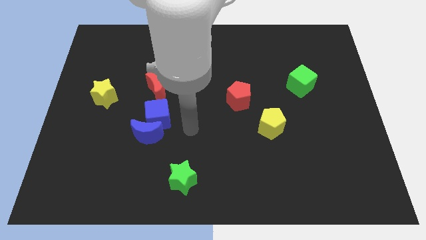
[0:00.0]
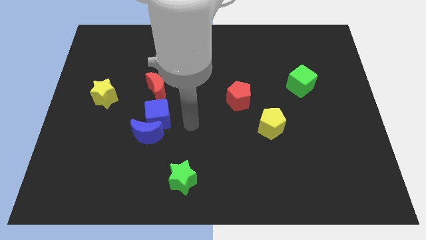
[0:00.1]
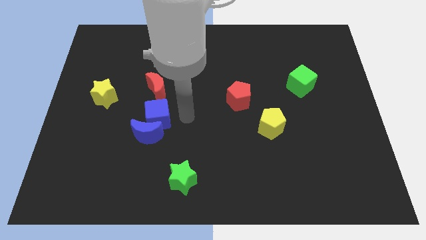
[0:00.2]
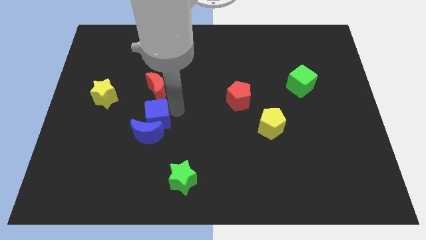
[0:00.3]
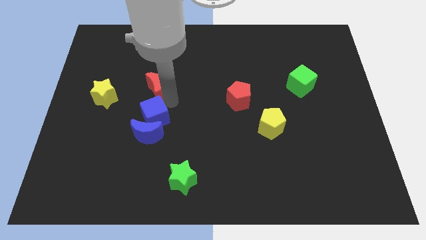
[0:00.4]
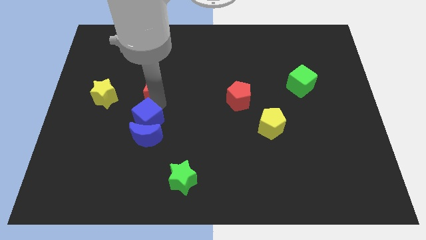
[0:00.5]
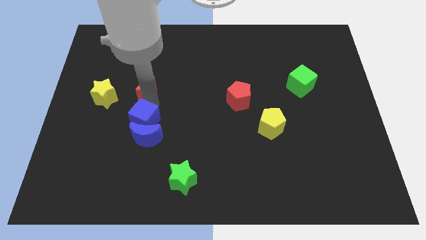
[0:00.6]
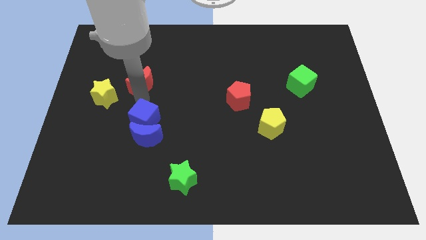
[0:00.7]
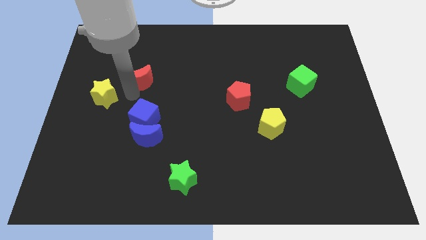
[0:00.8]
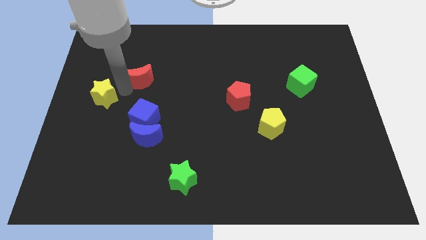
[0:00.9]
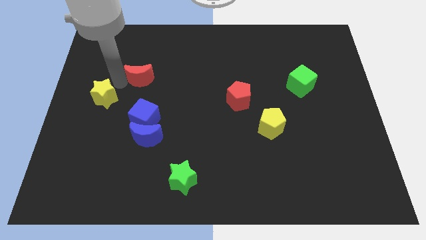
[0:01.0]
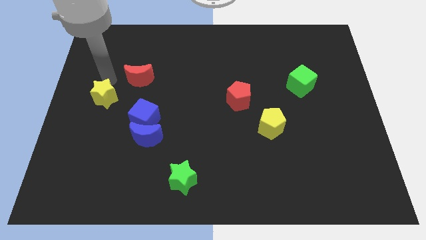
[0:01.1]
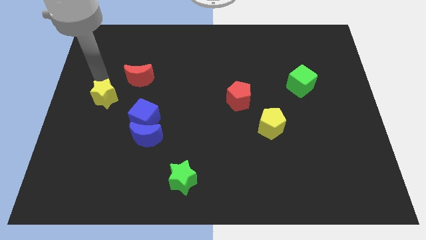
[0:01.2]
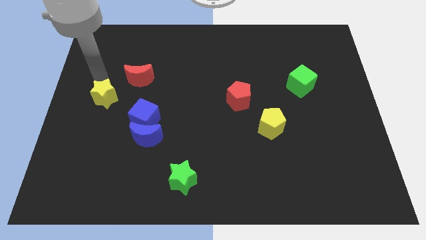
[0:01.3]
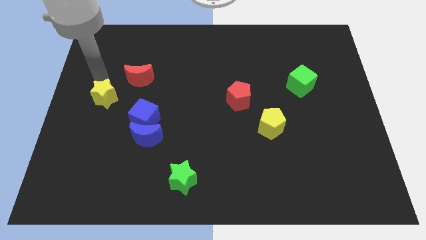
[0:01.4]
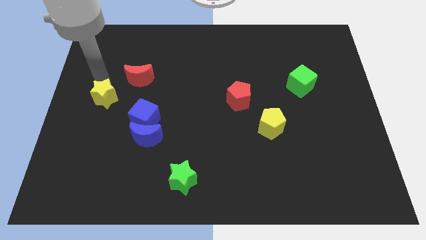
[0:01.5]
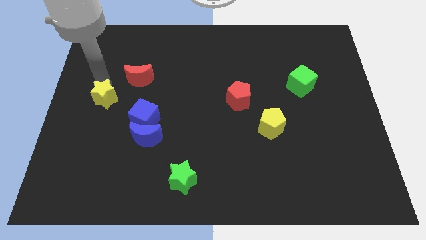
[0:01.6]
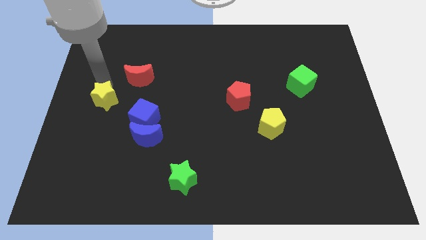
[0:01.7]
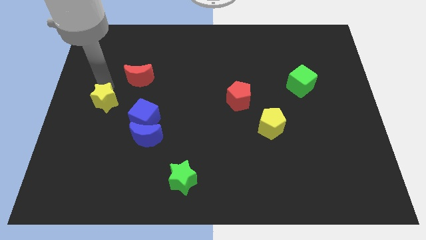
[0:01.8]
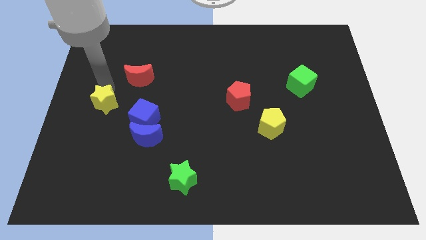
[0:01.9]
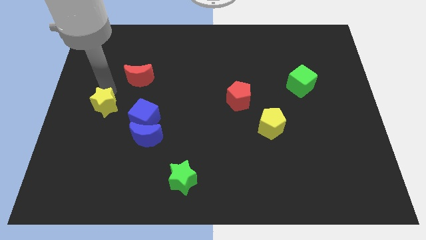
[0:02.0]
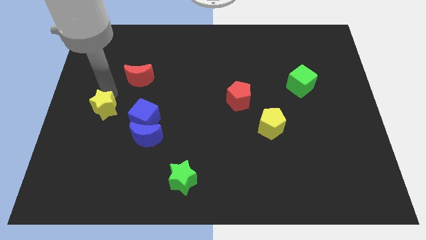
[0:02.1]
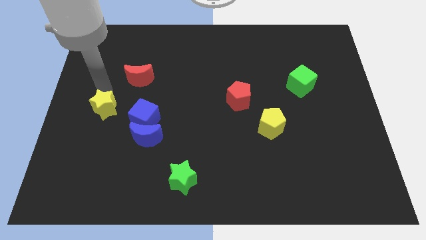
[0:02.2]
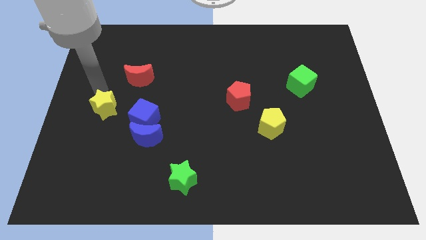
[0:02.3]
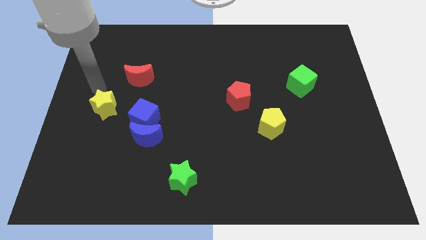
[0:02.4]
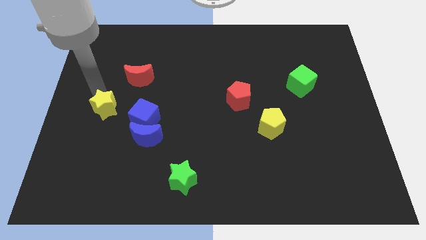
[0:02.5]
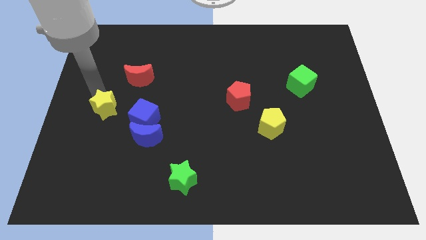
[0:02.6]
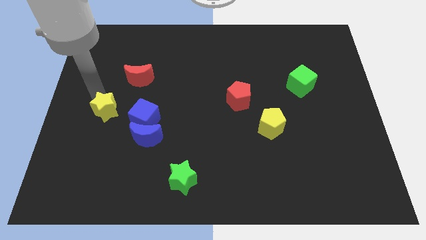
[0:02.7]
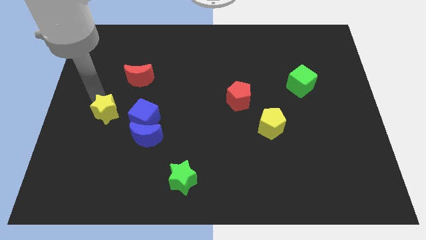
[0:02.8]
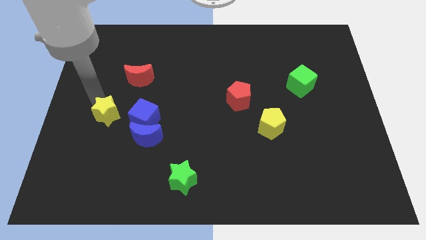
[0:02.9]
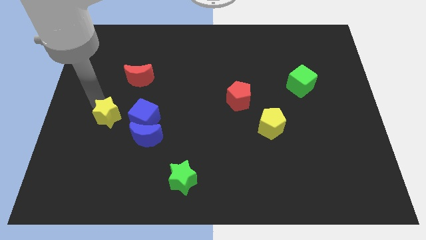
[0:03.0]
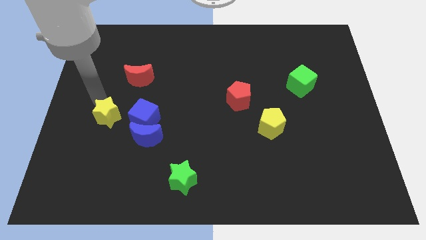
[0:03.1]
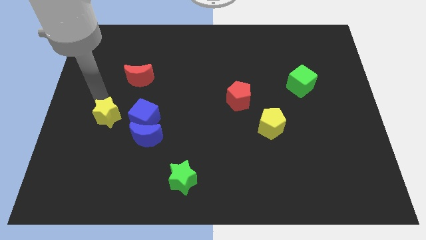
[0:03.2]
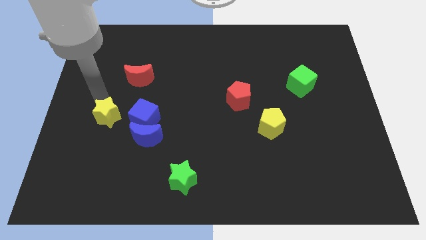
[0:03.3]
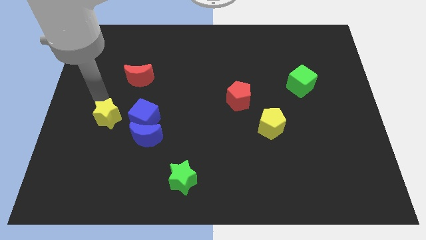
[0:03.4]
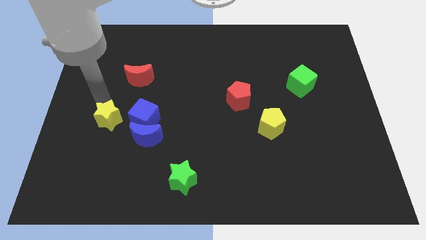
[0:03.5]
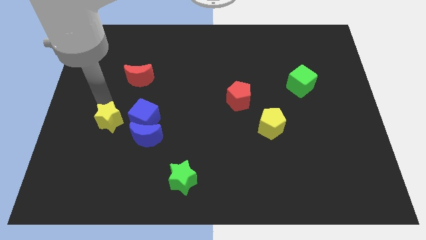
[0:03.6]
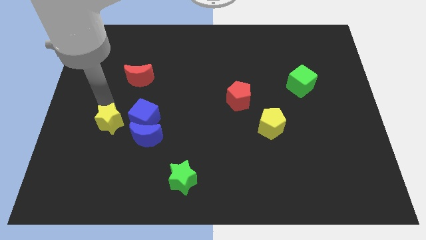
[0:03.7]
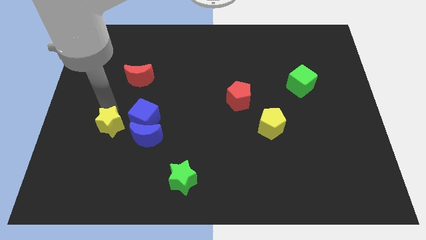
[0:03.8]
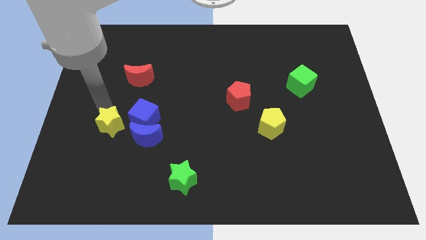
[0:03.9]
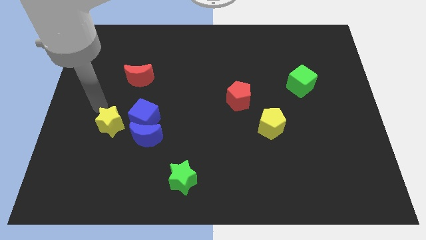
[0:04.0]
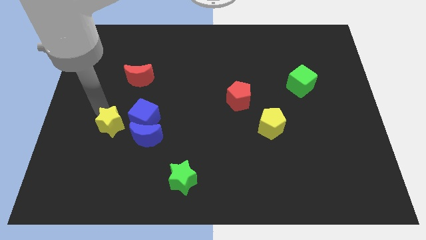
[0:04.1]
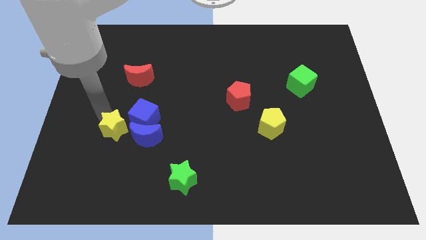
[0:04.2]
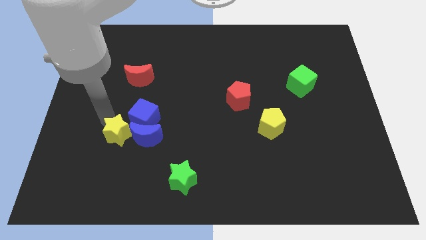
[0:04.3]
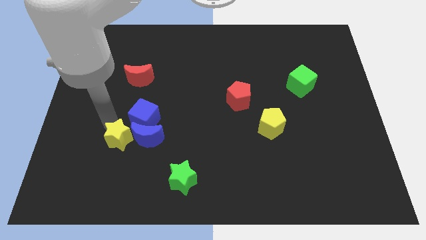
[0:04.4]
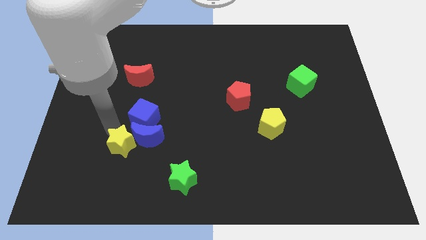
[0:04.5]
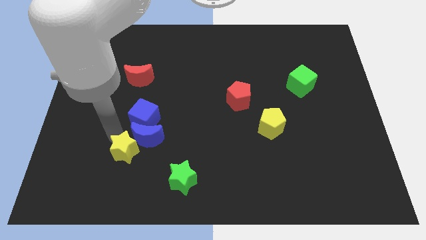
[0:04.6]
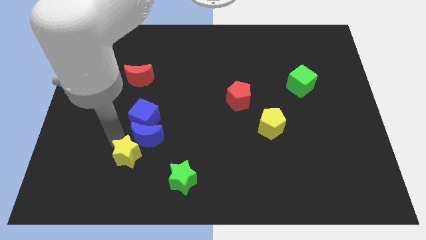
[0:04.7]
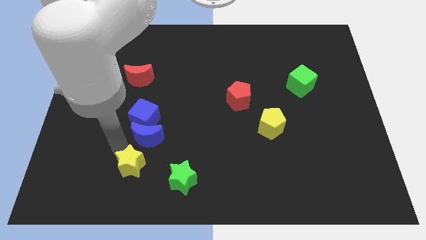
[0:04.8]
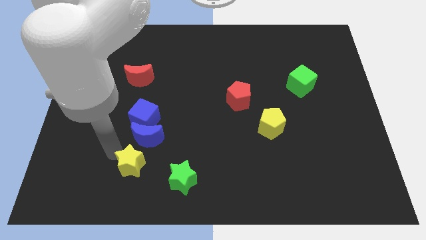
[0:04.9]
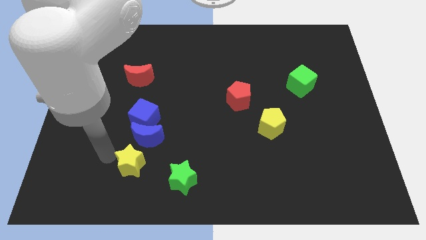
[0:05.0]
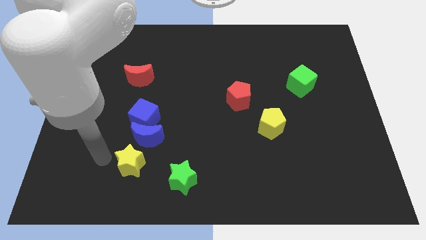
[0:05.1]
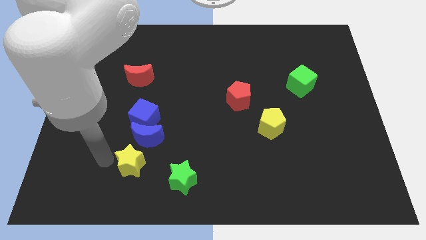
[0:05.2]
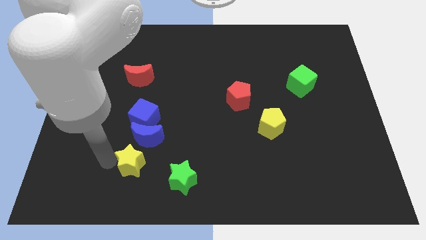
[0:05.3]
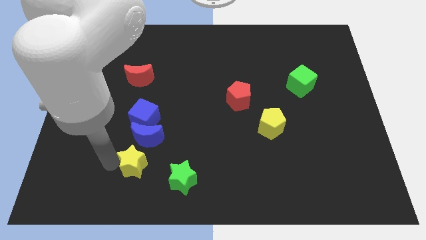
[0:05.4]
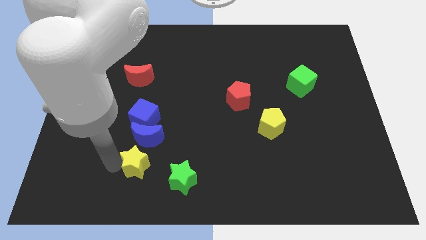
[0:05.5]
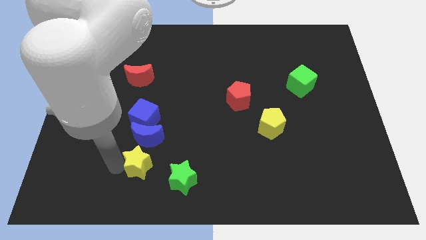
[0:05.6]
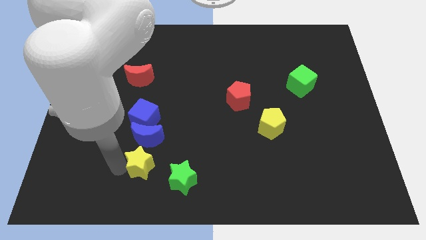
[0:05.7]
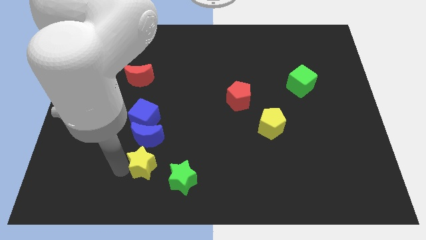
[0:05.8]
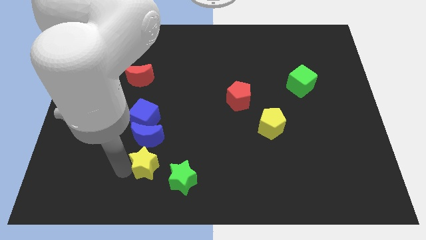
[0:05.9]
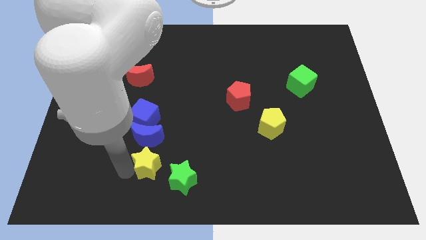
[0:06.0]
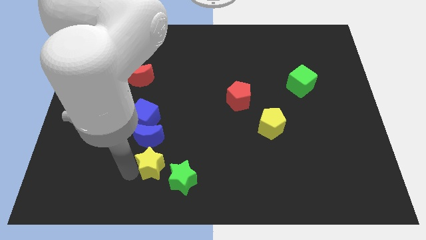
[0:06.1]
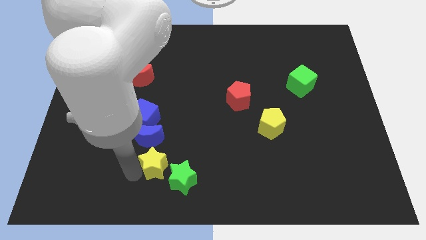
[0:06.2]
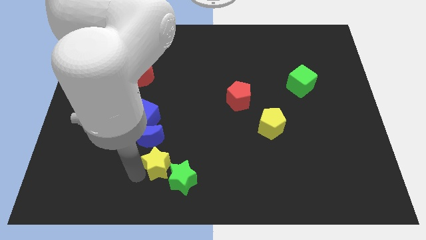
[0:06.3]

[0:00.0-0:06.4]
push the yellow star towards the green star
